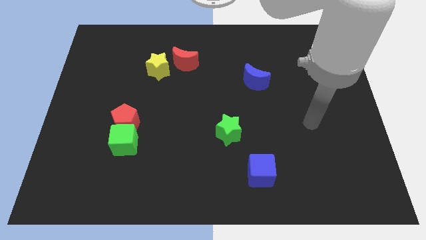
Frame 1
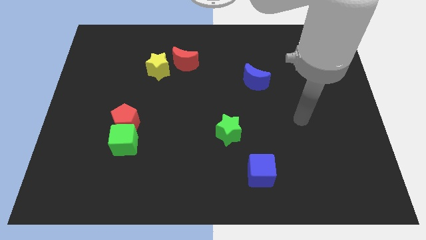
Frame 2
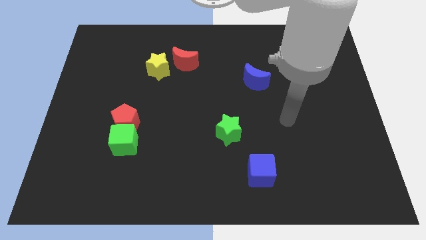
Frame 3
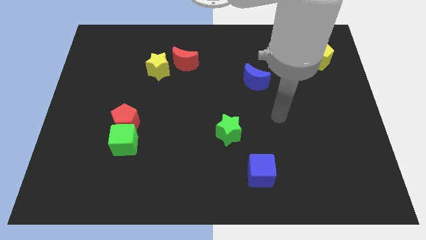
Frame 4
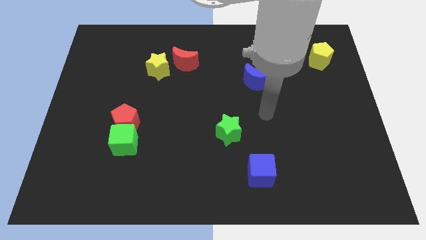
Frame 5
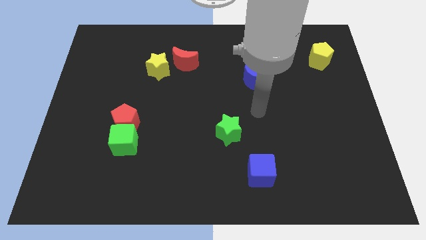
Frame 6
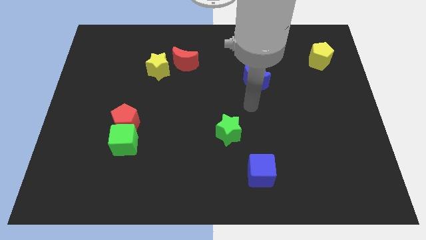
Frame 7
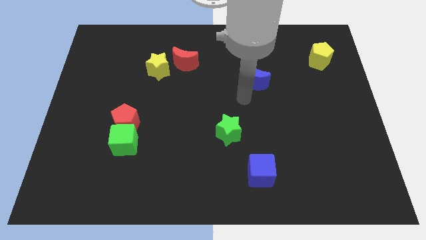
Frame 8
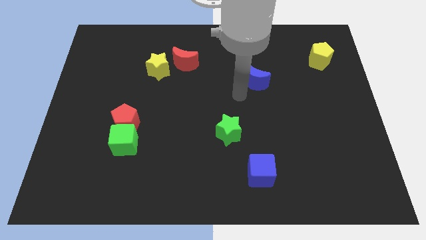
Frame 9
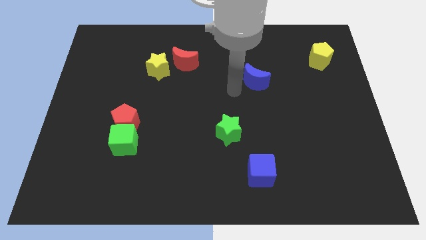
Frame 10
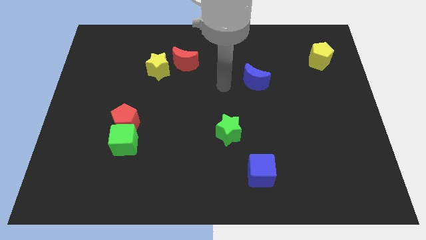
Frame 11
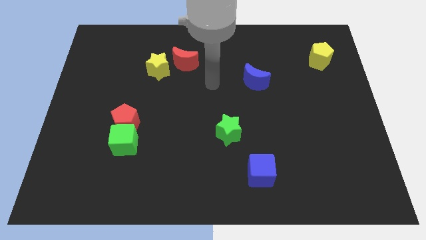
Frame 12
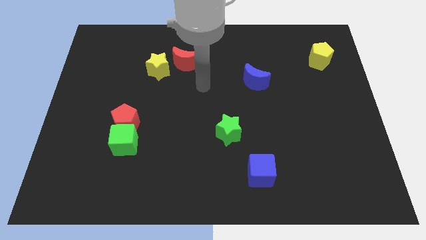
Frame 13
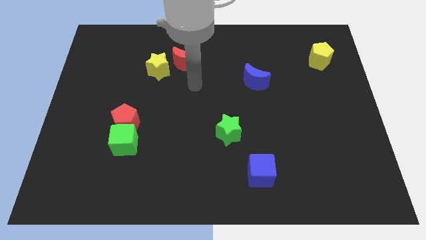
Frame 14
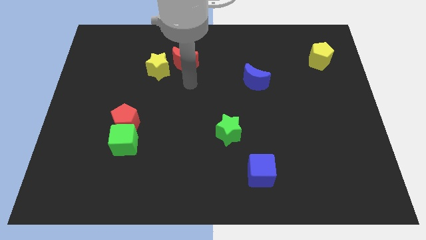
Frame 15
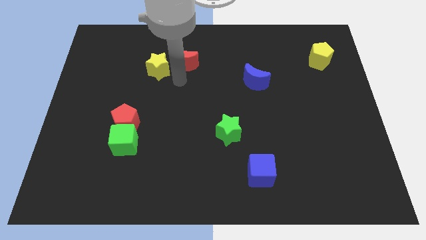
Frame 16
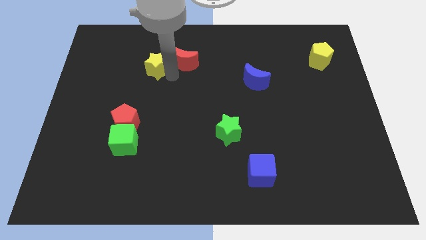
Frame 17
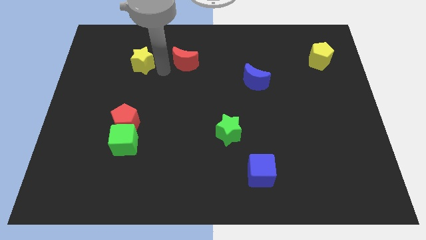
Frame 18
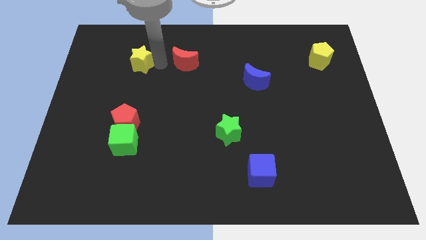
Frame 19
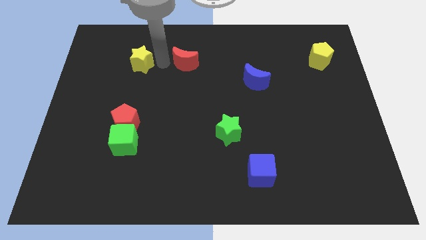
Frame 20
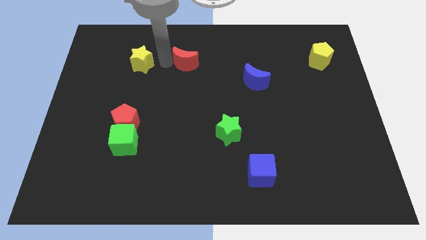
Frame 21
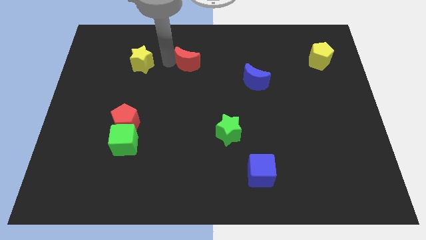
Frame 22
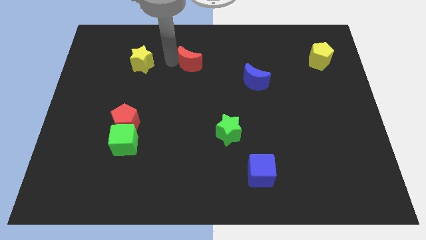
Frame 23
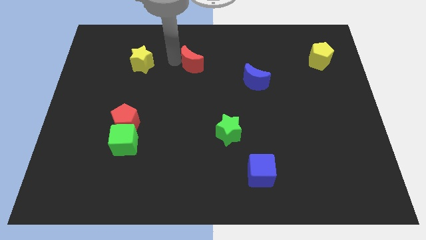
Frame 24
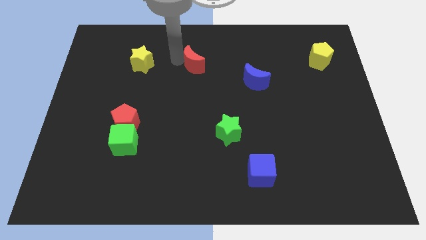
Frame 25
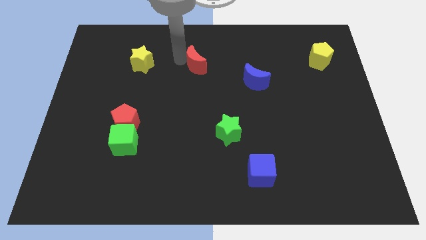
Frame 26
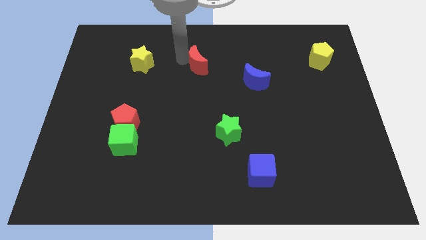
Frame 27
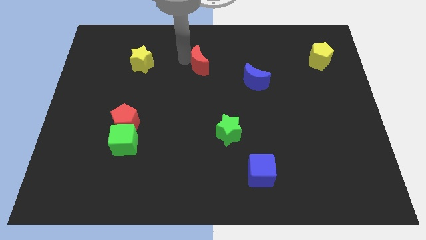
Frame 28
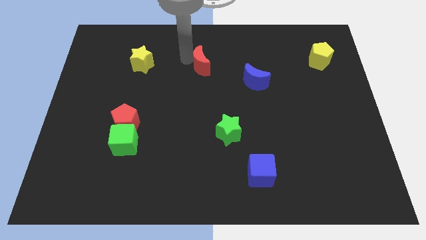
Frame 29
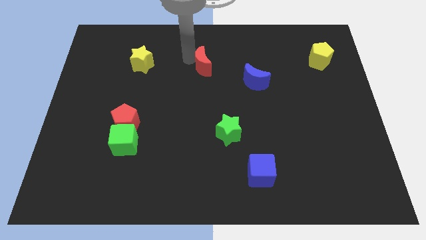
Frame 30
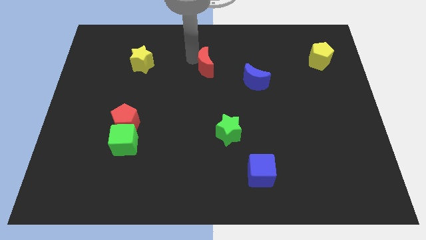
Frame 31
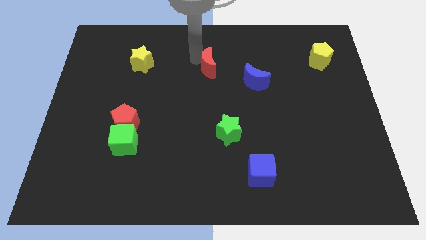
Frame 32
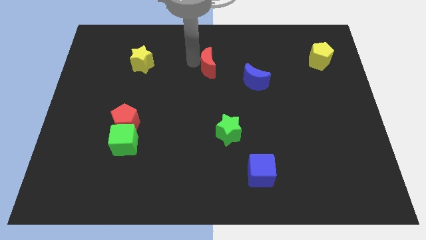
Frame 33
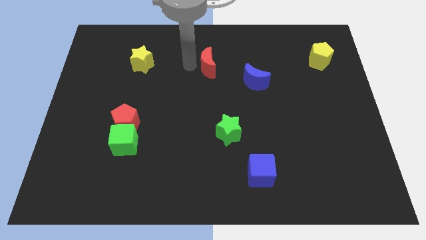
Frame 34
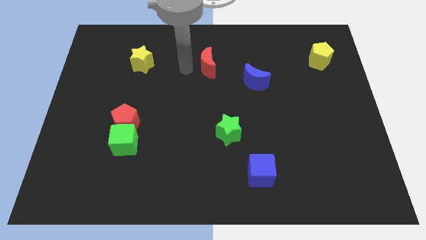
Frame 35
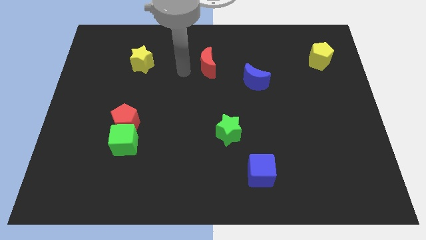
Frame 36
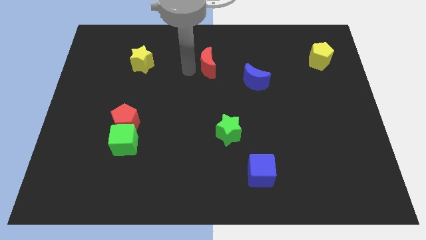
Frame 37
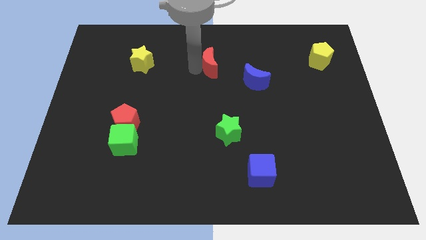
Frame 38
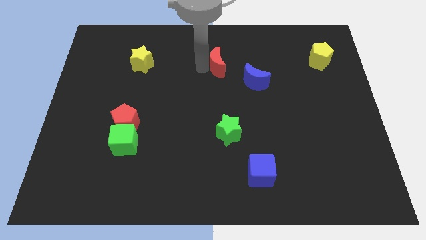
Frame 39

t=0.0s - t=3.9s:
slide the red moon a little bit right

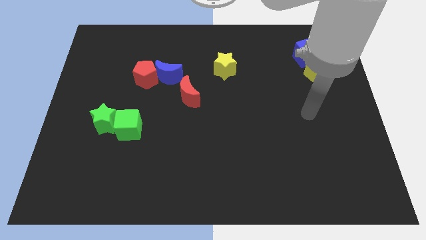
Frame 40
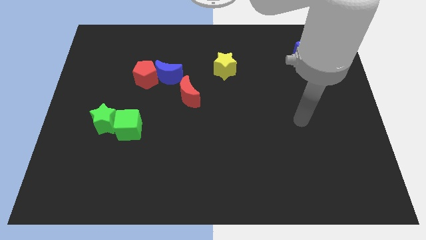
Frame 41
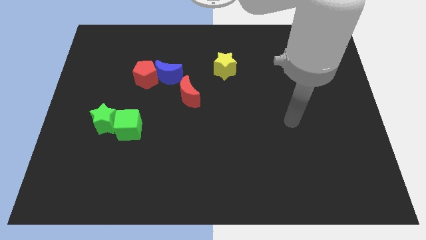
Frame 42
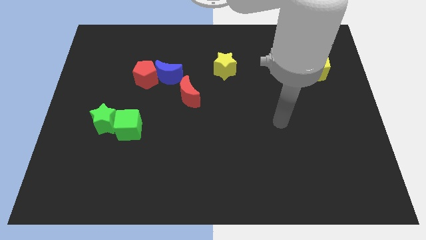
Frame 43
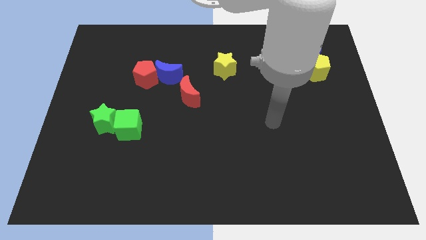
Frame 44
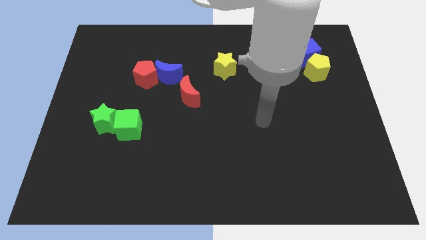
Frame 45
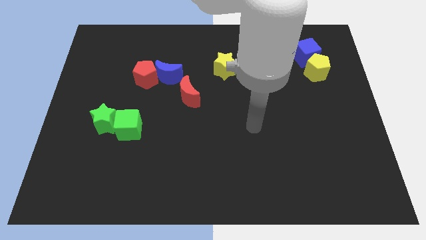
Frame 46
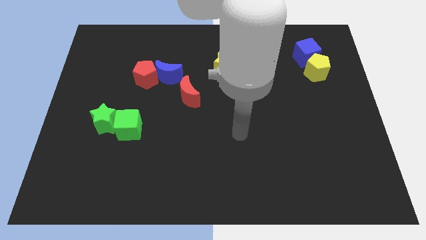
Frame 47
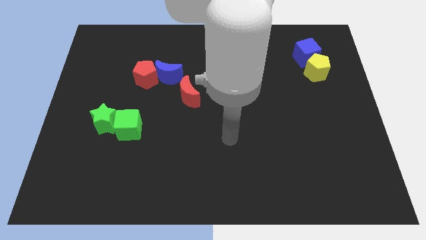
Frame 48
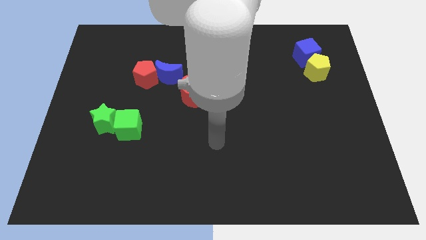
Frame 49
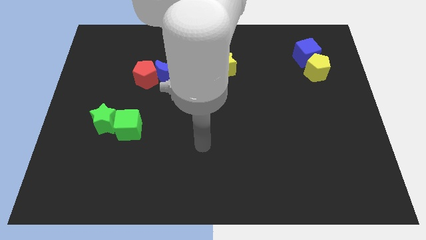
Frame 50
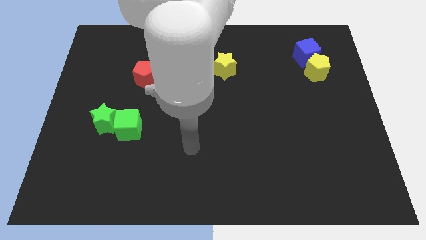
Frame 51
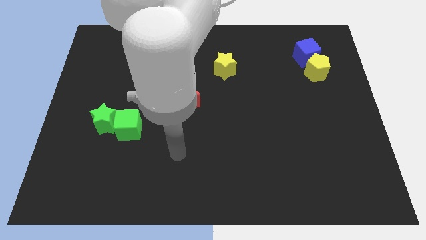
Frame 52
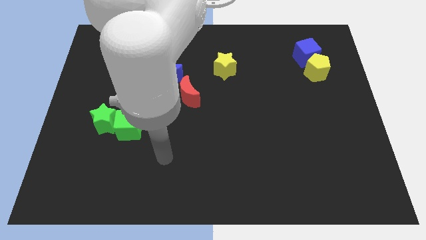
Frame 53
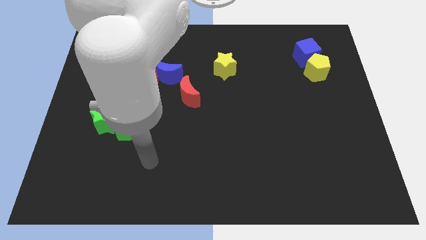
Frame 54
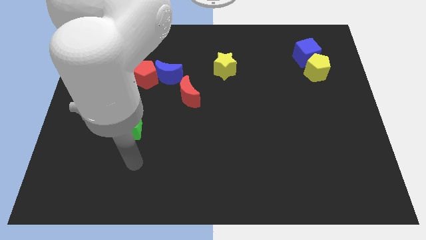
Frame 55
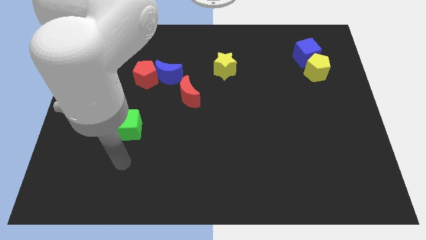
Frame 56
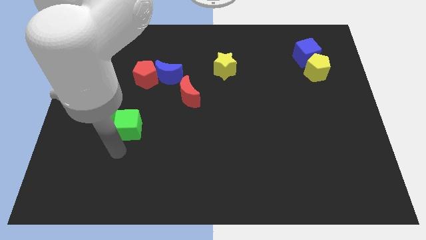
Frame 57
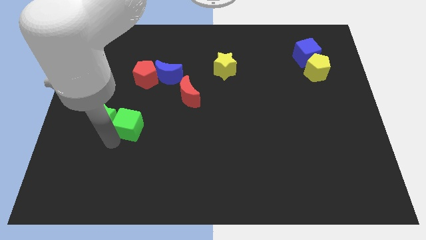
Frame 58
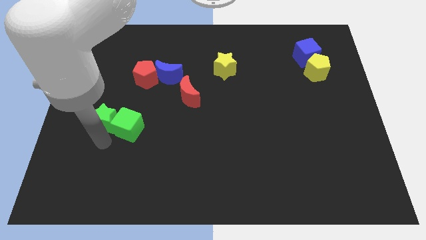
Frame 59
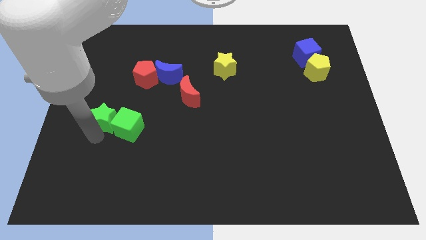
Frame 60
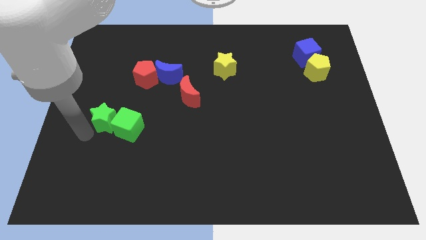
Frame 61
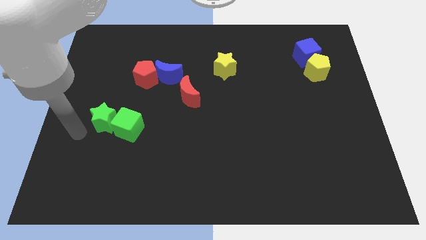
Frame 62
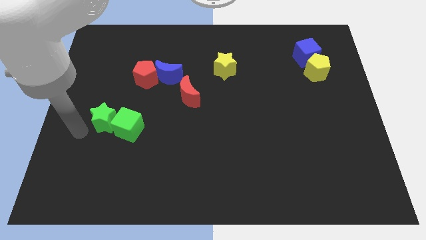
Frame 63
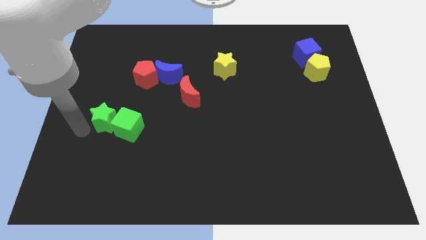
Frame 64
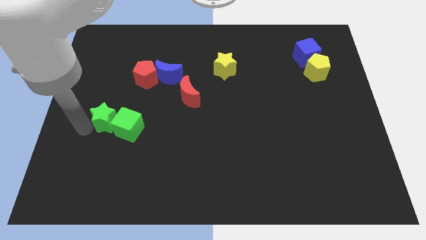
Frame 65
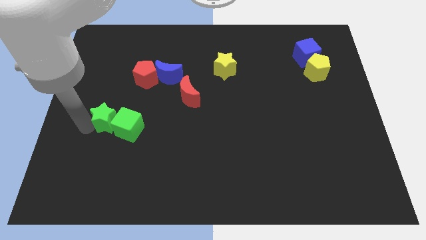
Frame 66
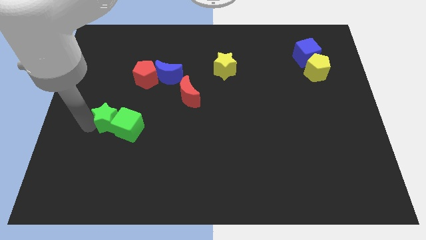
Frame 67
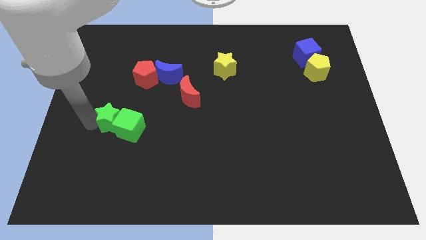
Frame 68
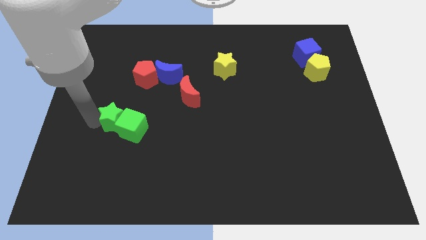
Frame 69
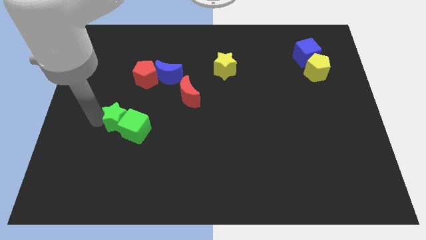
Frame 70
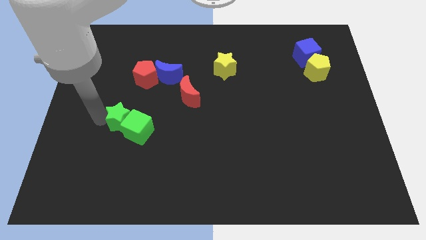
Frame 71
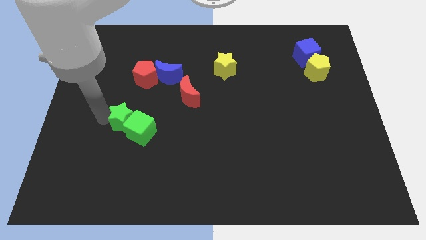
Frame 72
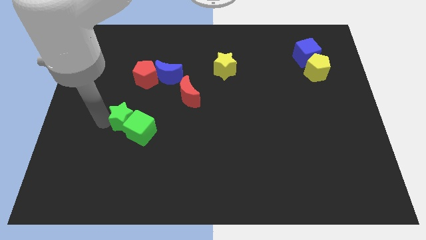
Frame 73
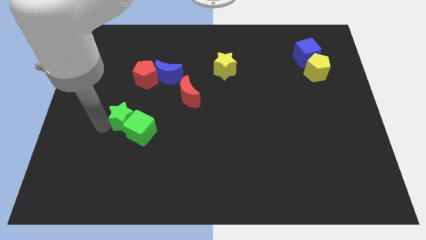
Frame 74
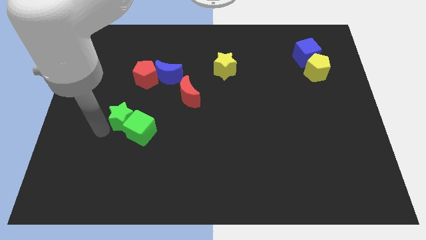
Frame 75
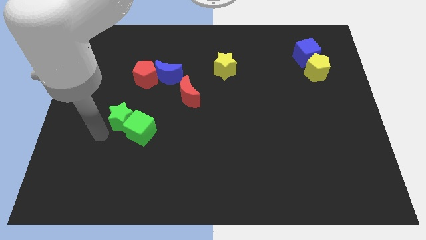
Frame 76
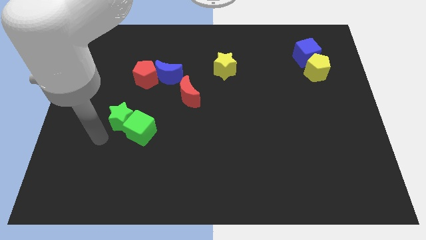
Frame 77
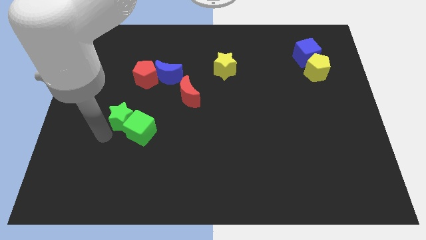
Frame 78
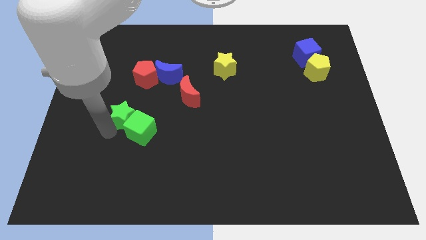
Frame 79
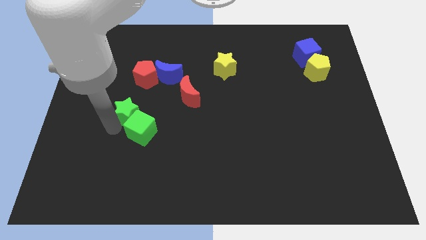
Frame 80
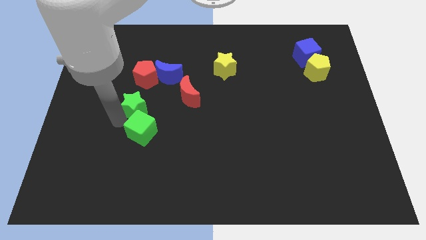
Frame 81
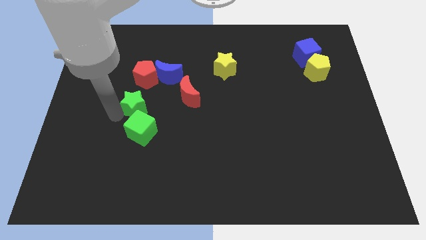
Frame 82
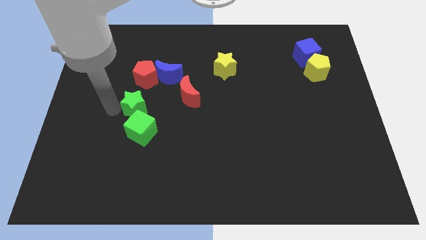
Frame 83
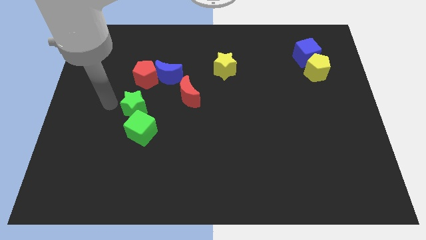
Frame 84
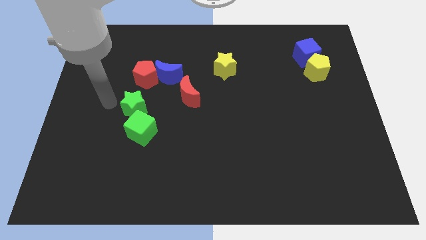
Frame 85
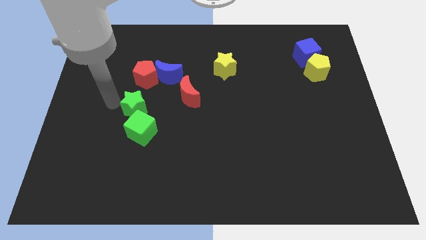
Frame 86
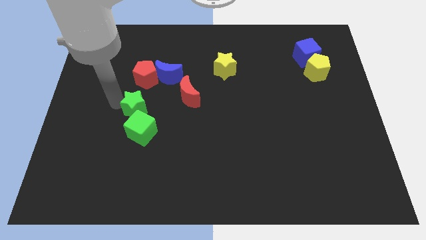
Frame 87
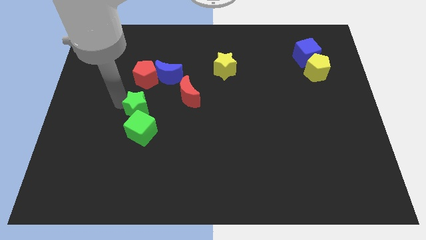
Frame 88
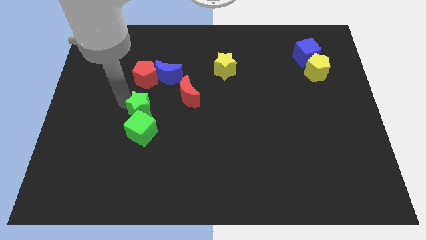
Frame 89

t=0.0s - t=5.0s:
slide the green star slightly right
